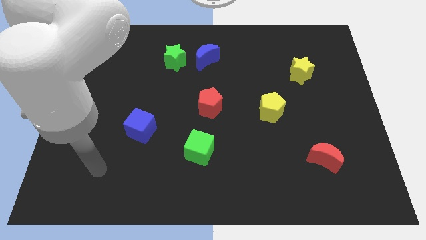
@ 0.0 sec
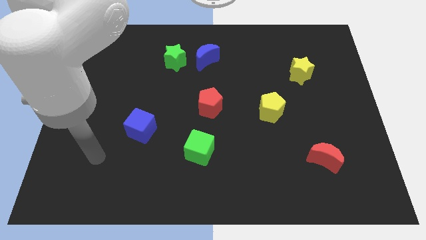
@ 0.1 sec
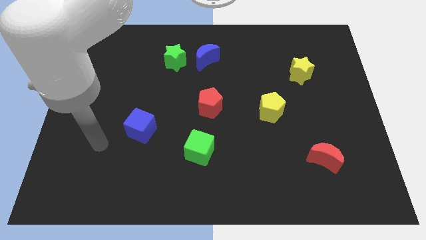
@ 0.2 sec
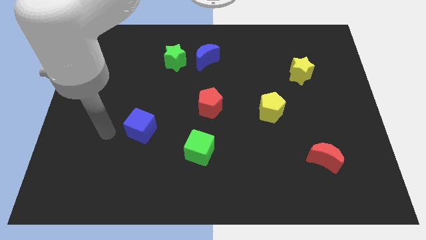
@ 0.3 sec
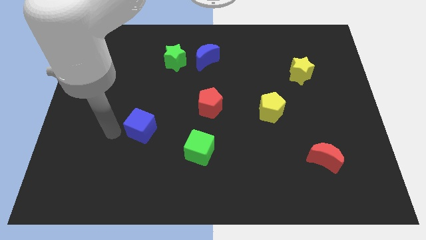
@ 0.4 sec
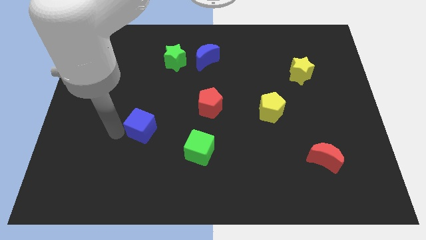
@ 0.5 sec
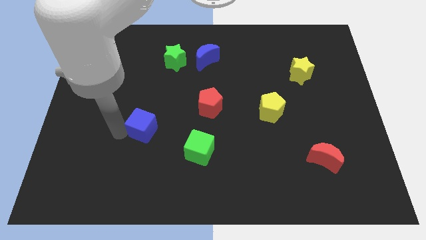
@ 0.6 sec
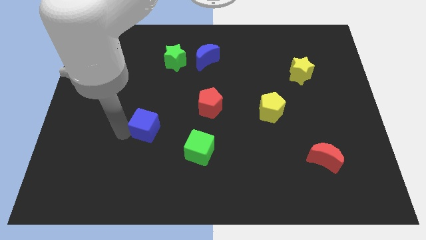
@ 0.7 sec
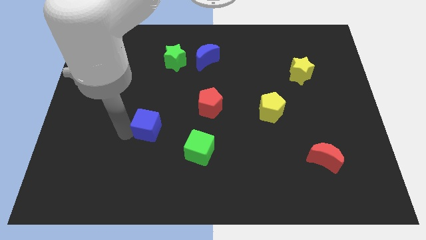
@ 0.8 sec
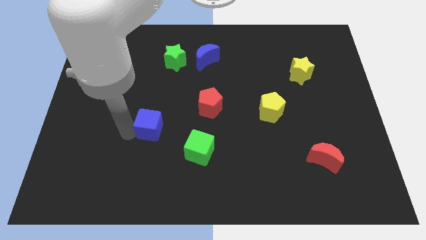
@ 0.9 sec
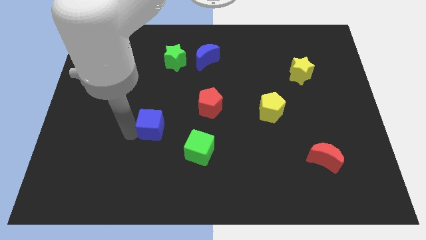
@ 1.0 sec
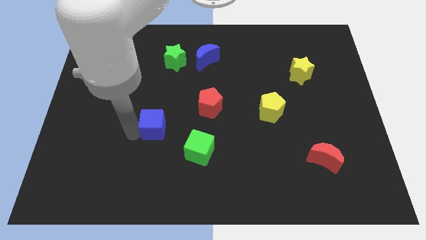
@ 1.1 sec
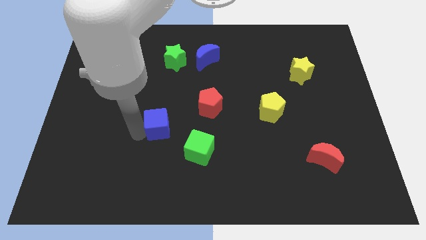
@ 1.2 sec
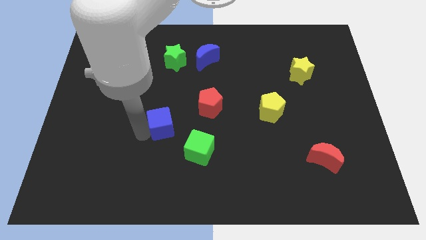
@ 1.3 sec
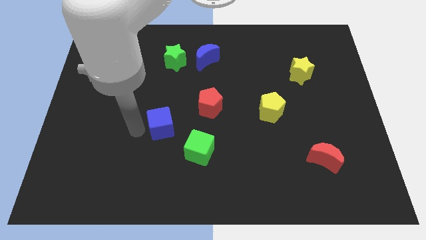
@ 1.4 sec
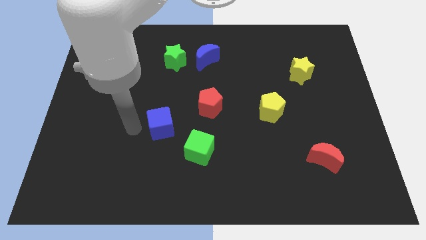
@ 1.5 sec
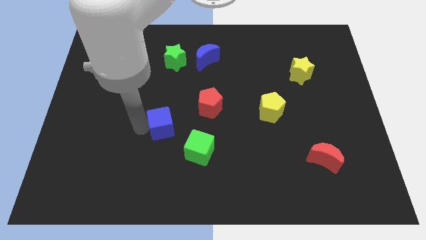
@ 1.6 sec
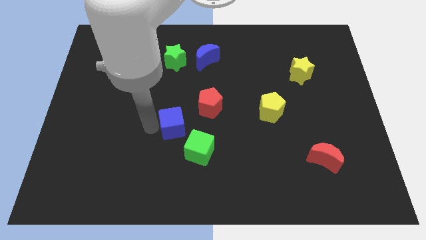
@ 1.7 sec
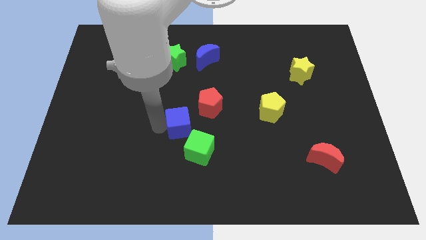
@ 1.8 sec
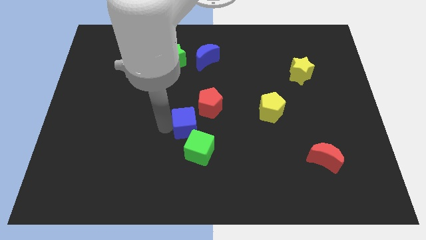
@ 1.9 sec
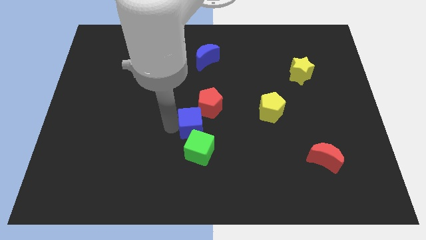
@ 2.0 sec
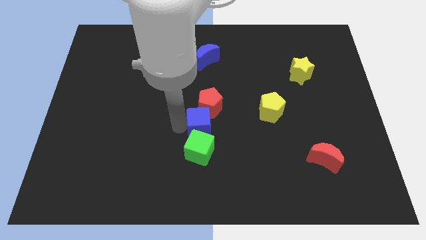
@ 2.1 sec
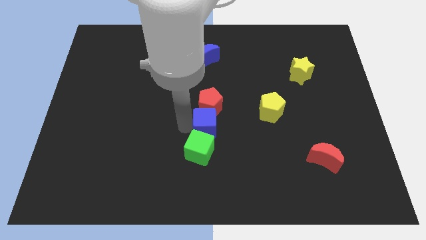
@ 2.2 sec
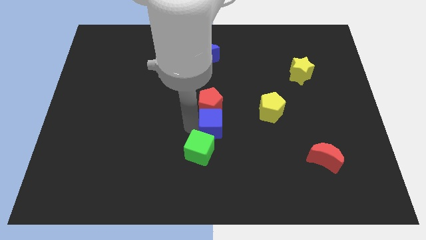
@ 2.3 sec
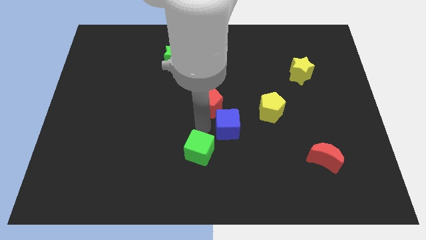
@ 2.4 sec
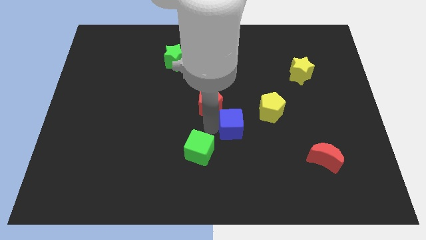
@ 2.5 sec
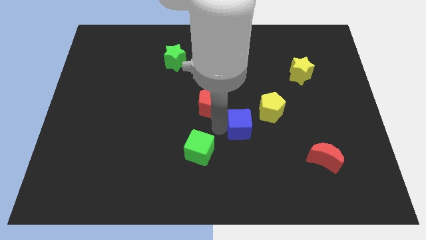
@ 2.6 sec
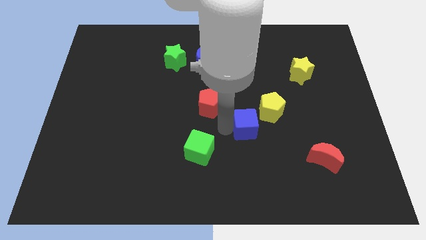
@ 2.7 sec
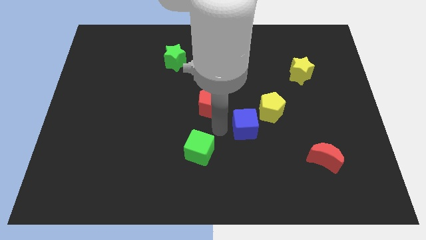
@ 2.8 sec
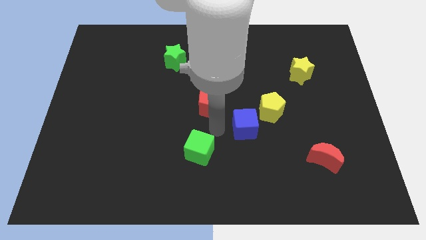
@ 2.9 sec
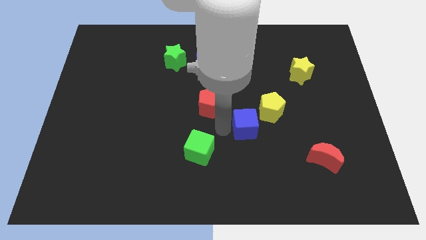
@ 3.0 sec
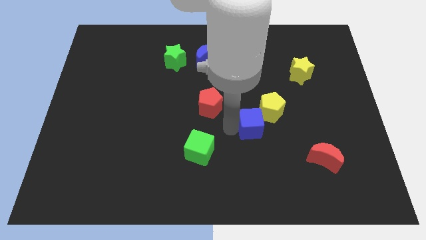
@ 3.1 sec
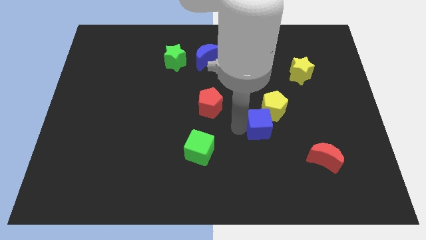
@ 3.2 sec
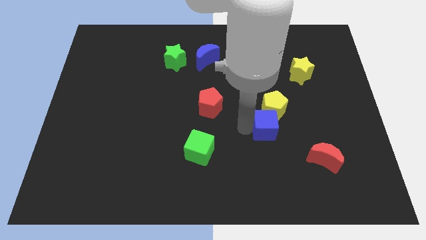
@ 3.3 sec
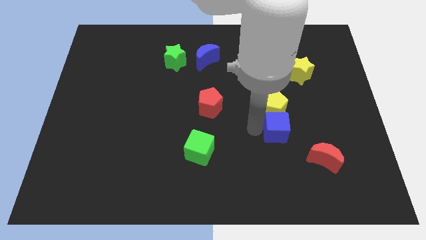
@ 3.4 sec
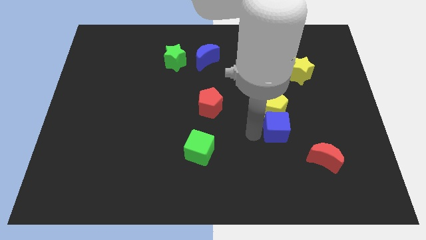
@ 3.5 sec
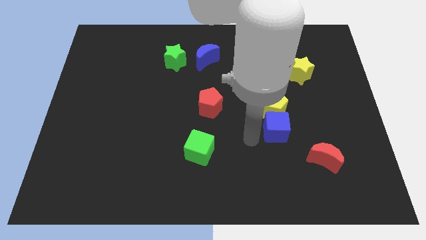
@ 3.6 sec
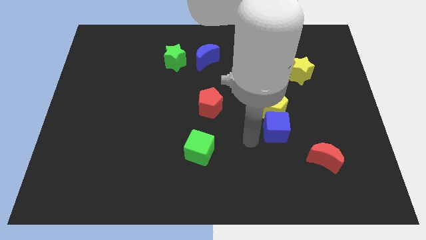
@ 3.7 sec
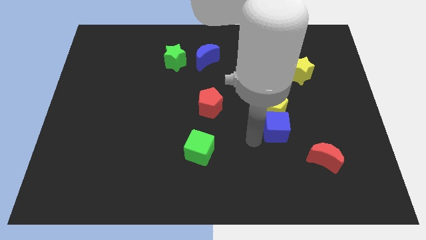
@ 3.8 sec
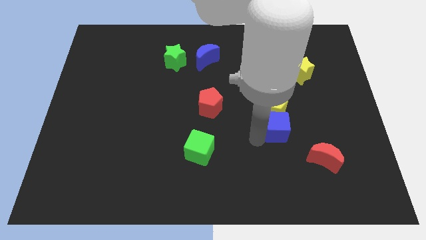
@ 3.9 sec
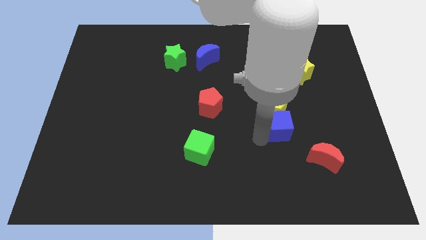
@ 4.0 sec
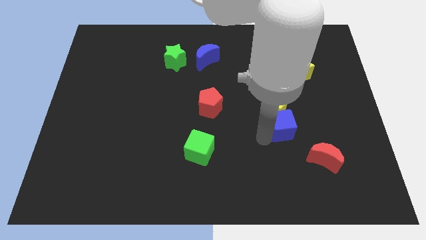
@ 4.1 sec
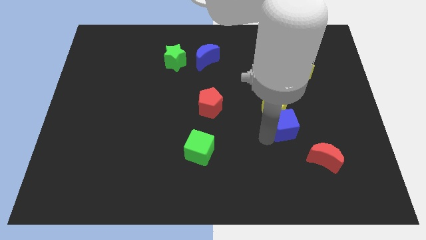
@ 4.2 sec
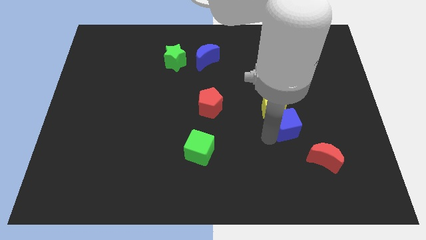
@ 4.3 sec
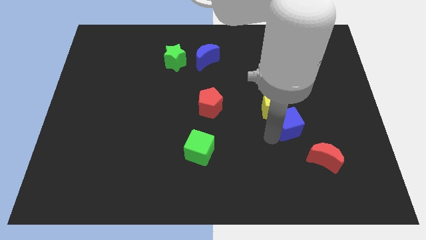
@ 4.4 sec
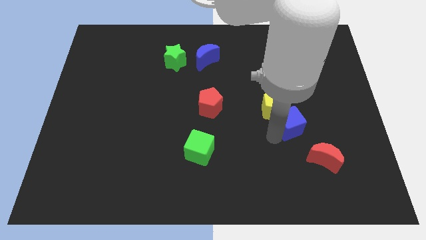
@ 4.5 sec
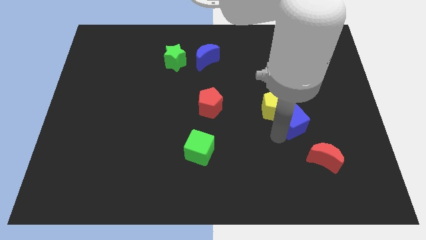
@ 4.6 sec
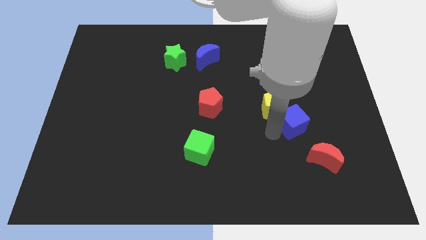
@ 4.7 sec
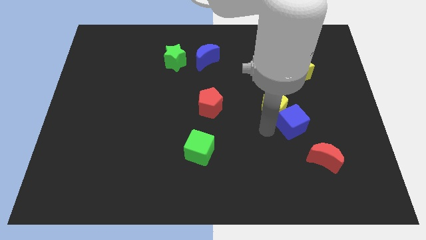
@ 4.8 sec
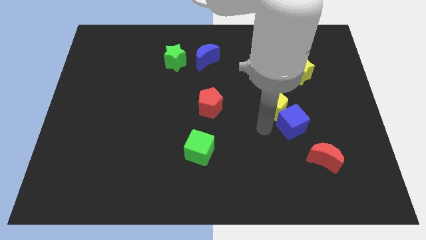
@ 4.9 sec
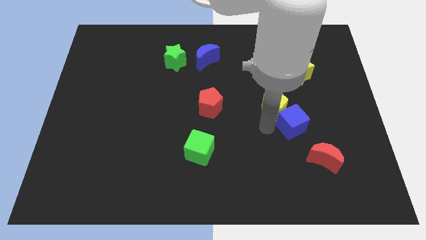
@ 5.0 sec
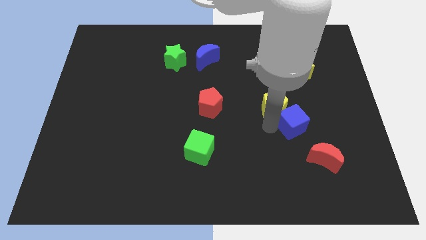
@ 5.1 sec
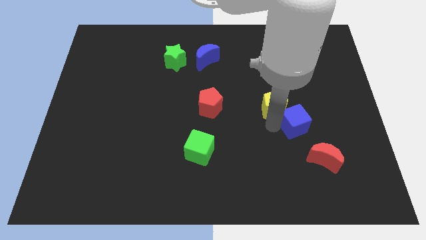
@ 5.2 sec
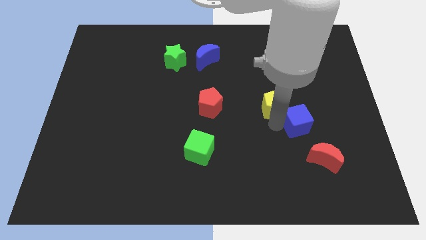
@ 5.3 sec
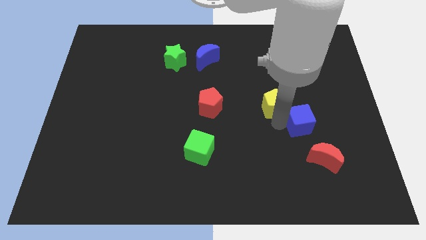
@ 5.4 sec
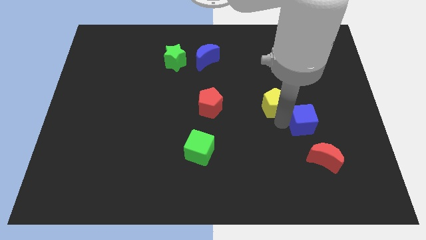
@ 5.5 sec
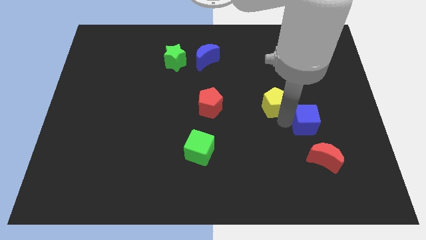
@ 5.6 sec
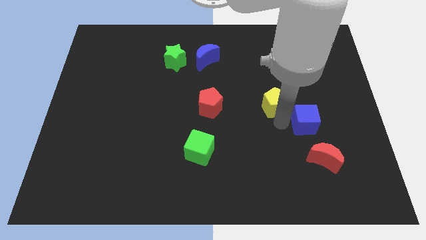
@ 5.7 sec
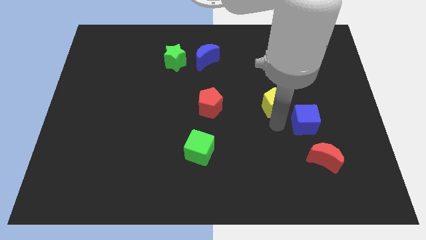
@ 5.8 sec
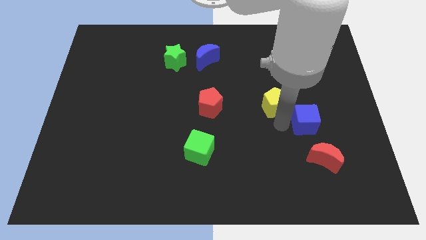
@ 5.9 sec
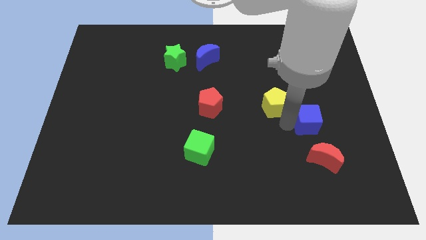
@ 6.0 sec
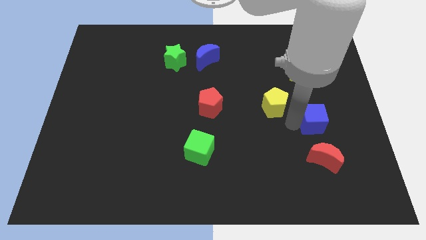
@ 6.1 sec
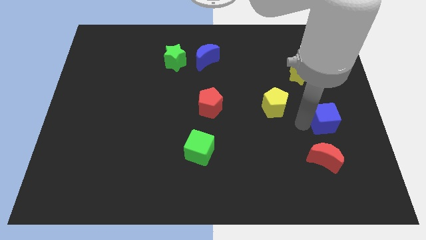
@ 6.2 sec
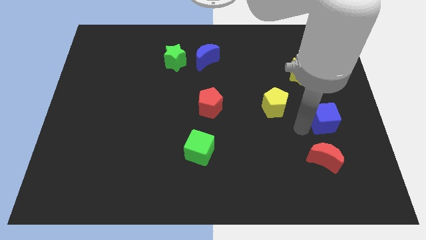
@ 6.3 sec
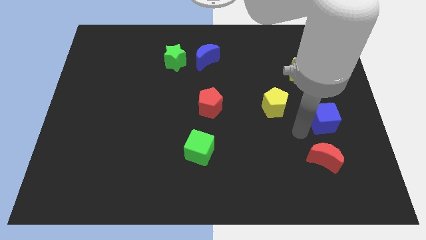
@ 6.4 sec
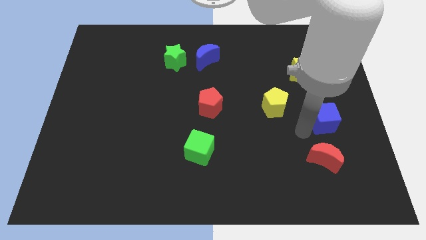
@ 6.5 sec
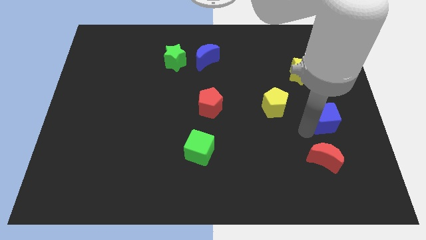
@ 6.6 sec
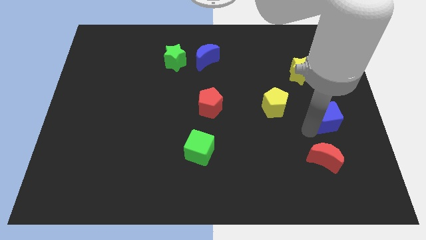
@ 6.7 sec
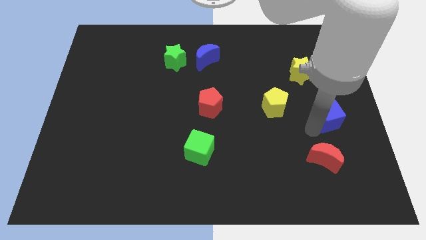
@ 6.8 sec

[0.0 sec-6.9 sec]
move the blue cube to the center right
